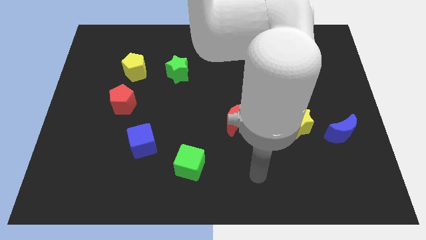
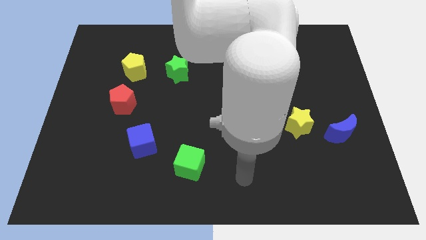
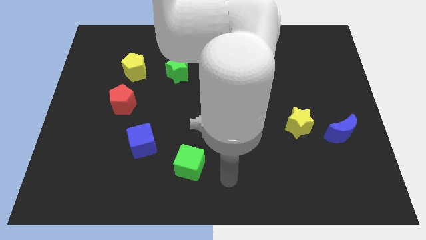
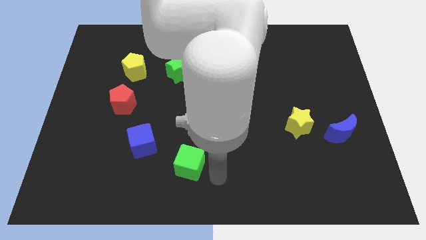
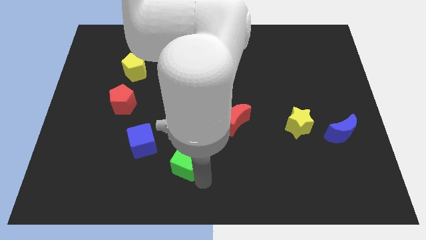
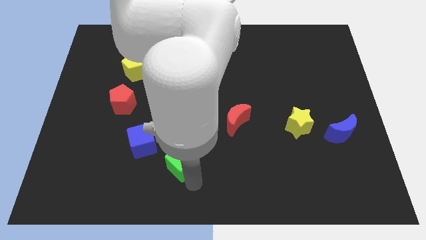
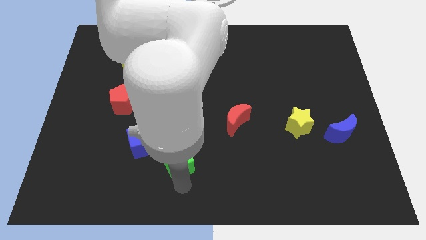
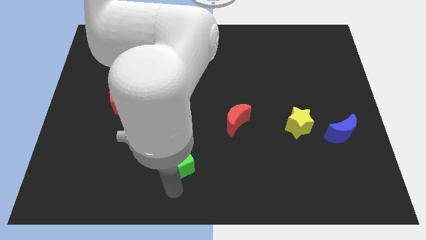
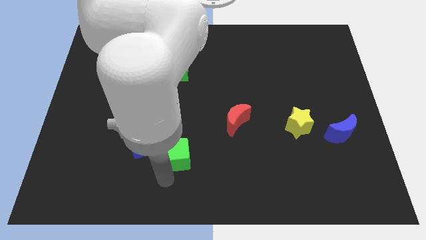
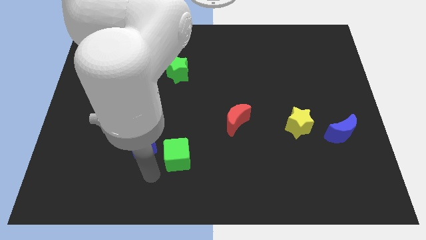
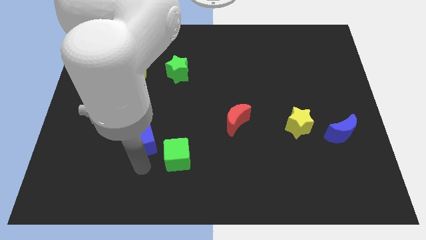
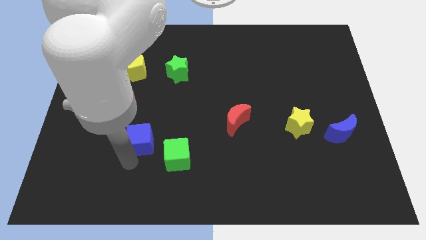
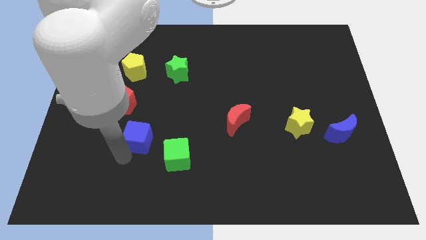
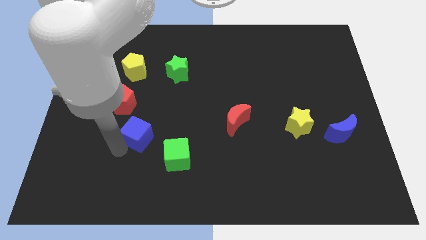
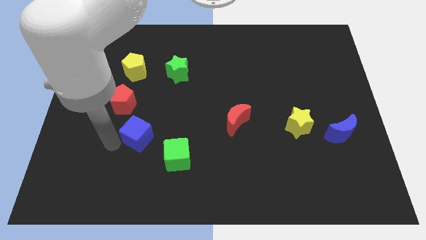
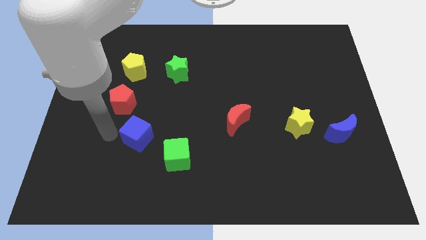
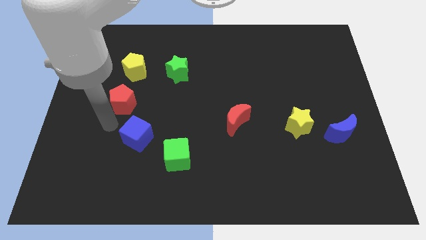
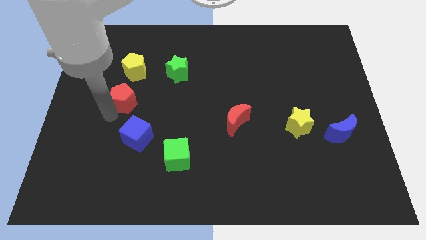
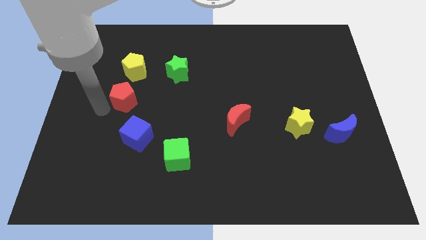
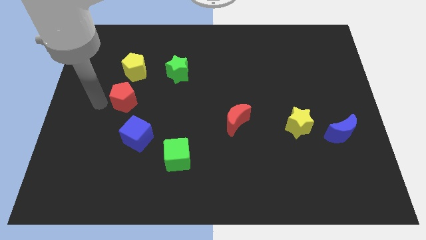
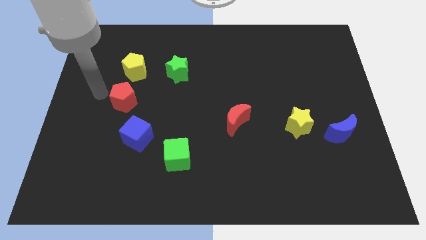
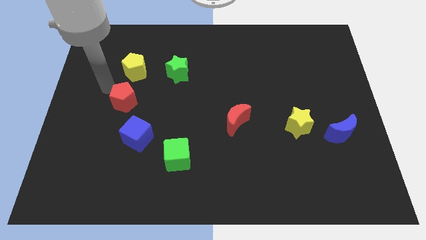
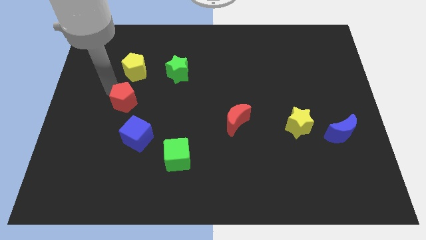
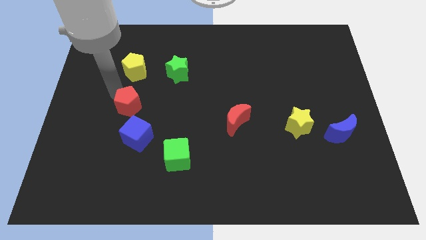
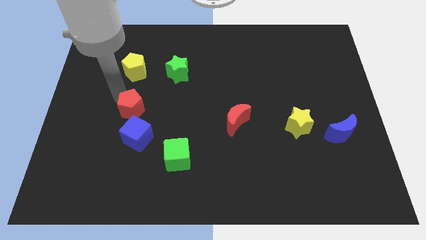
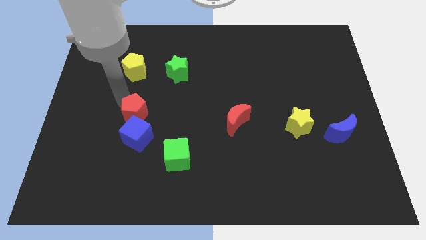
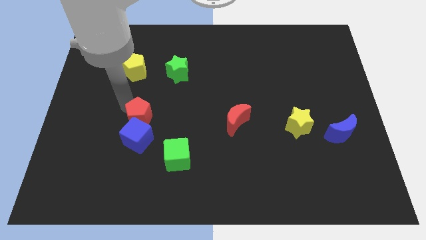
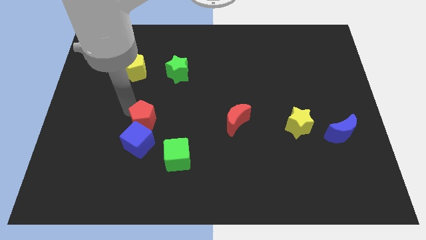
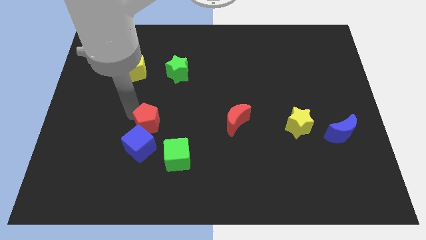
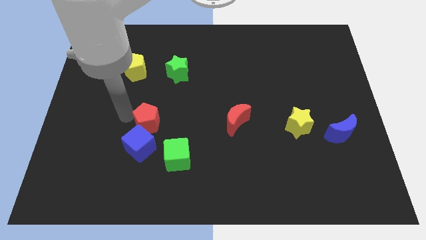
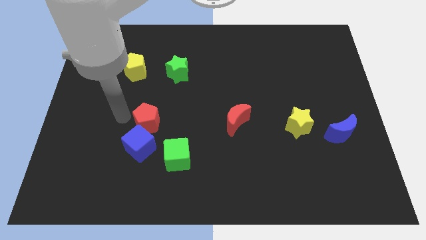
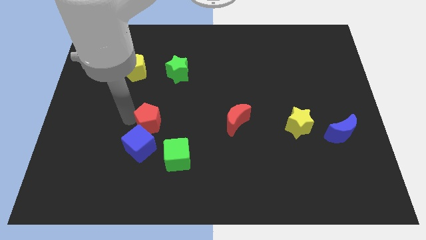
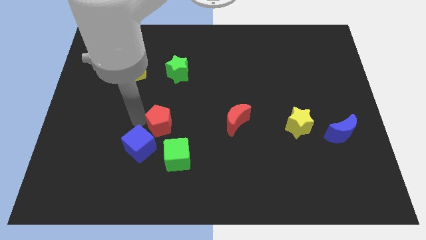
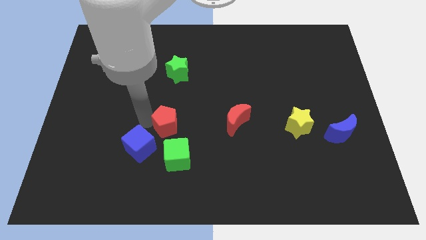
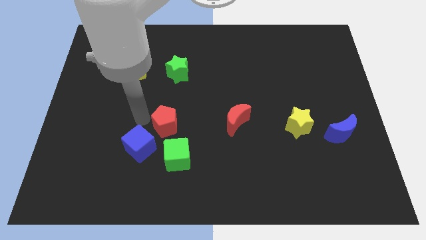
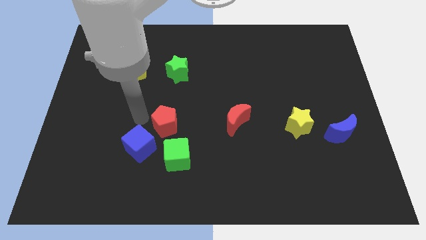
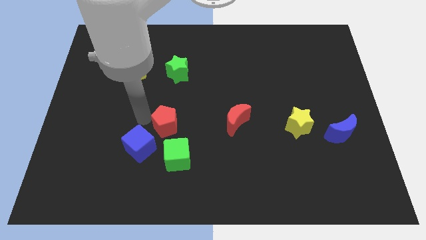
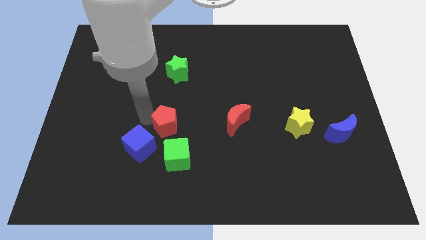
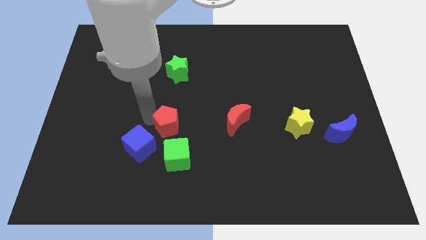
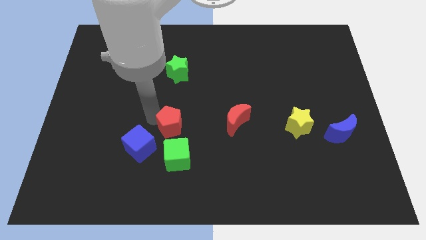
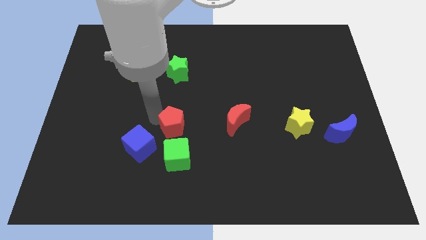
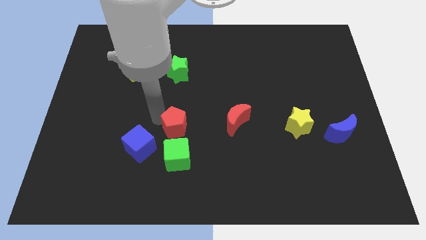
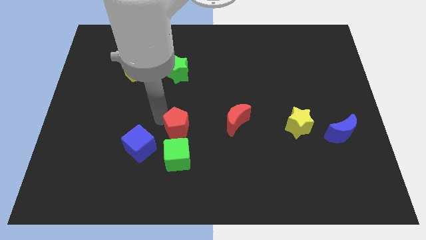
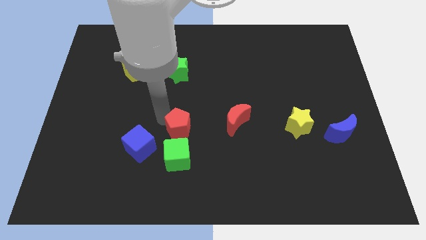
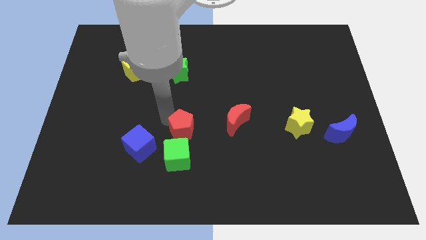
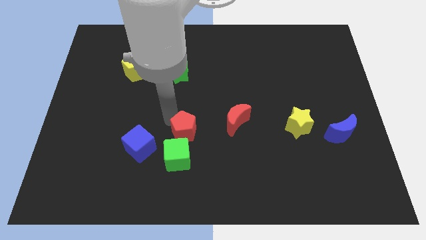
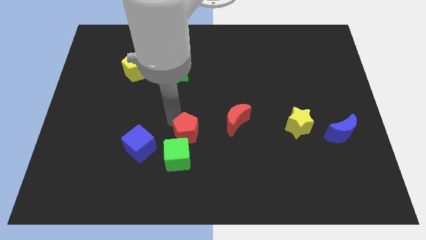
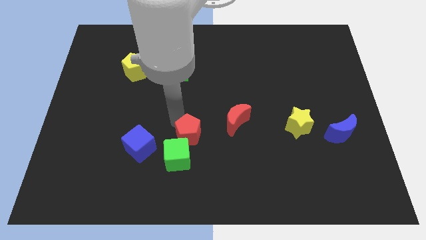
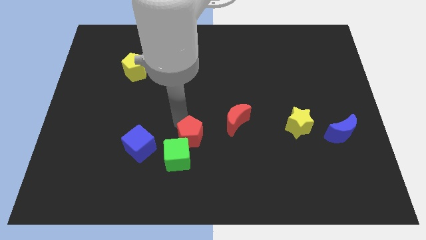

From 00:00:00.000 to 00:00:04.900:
move the red pentagon diagonally down and to the left of the red moon

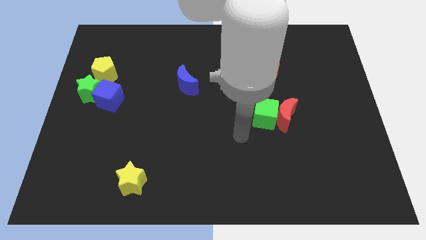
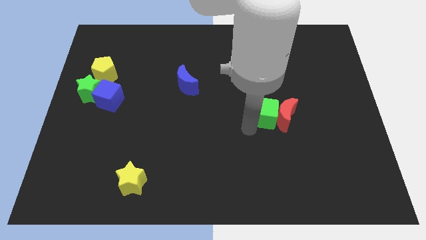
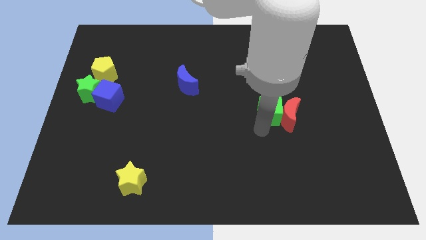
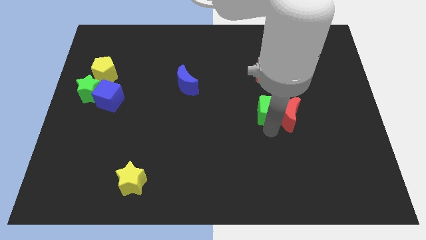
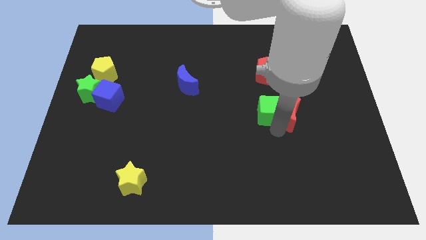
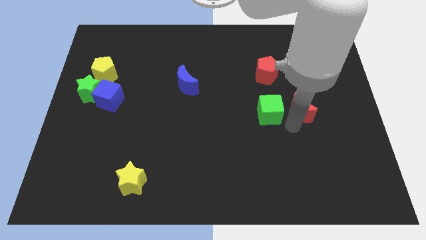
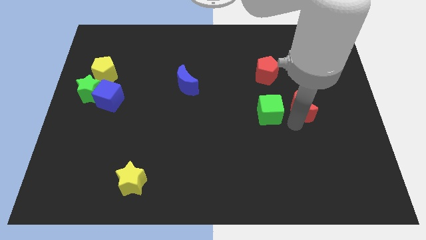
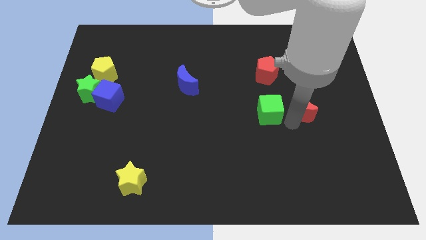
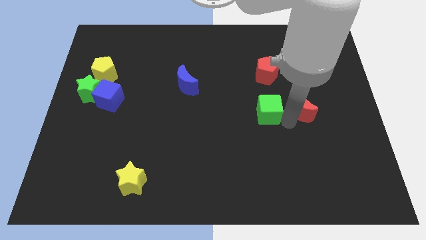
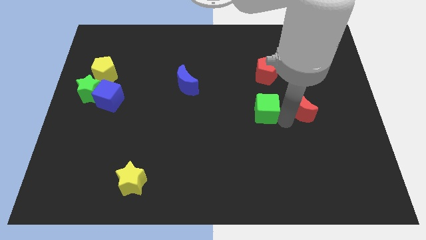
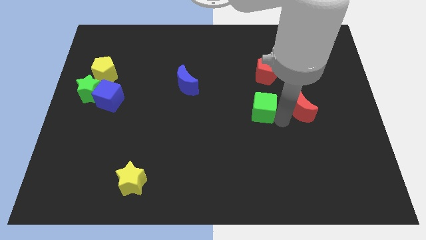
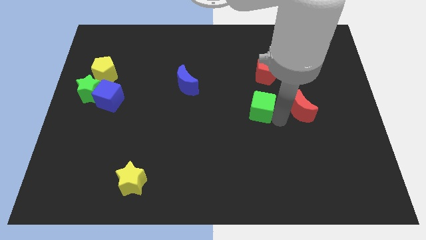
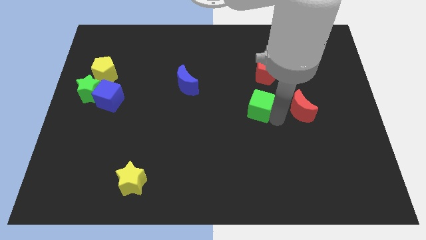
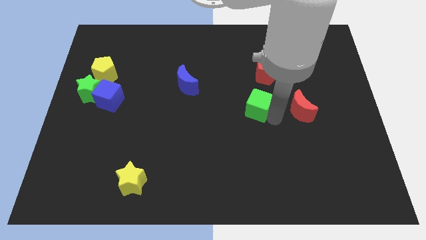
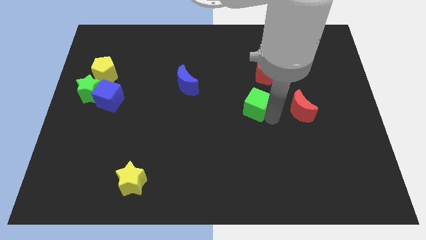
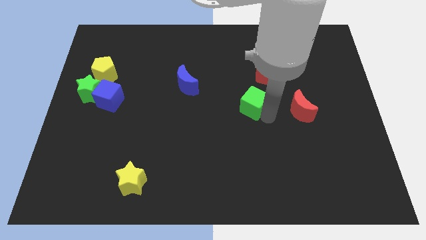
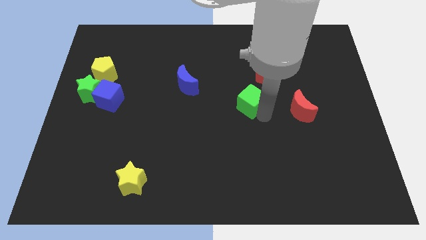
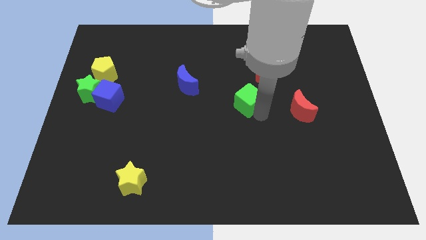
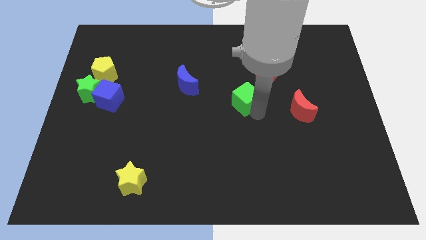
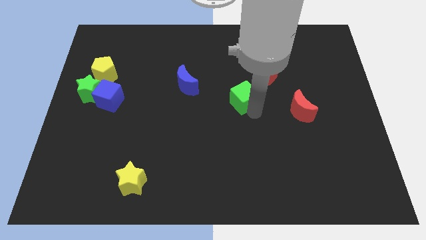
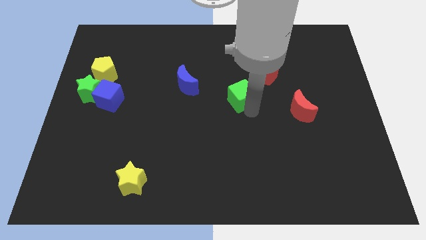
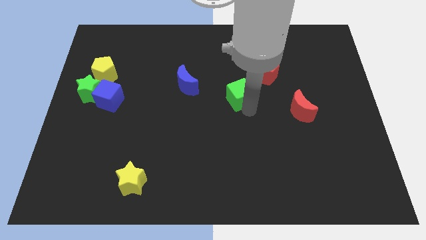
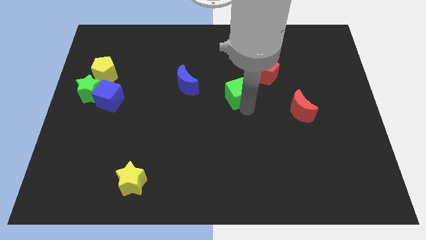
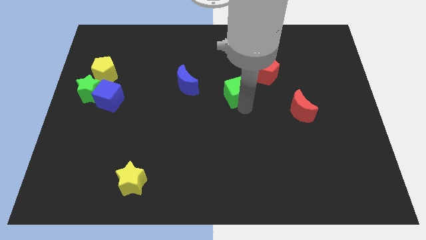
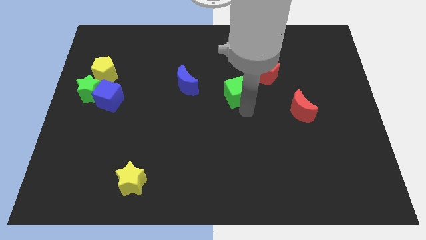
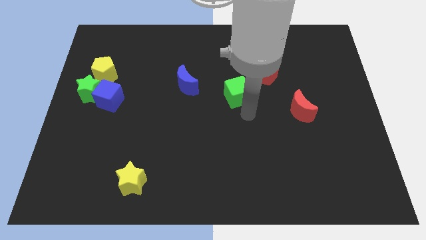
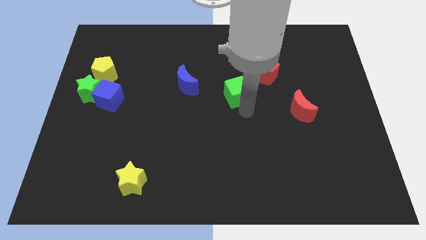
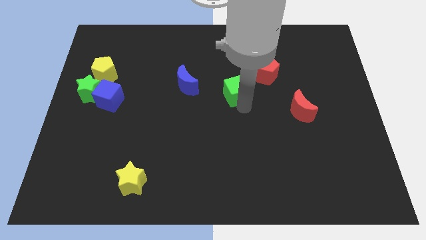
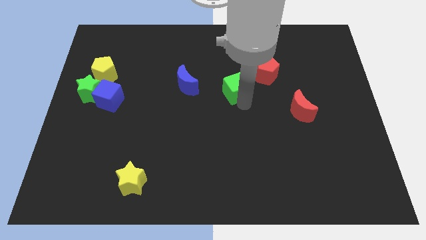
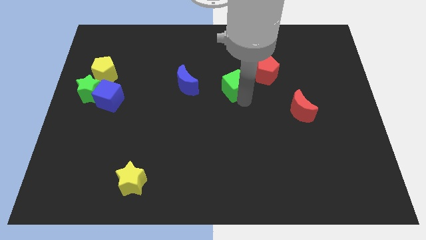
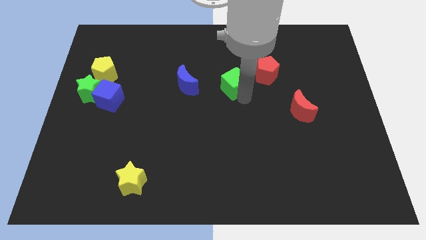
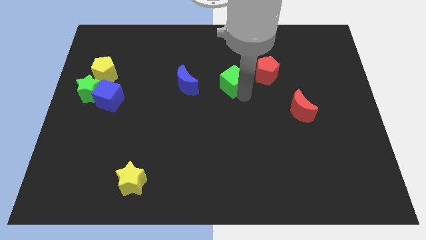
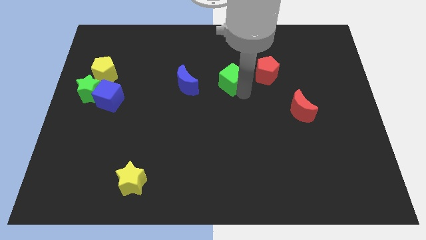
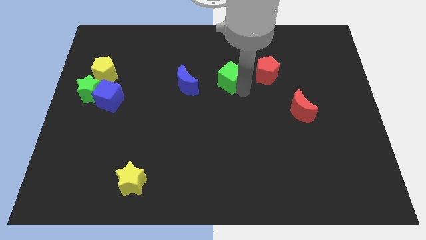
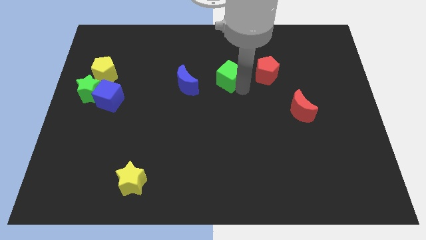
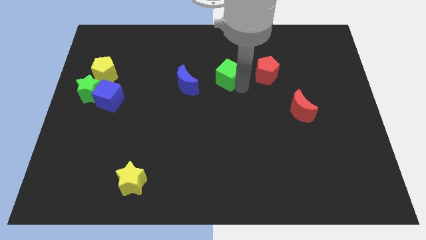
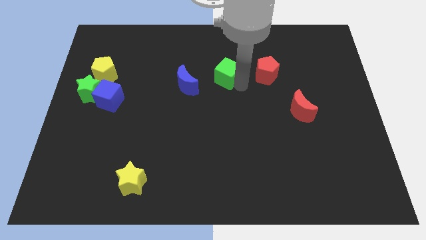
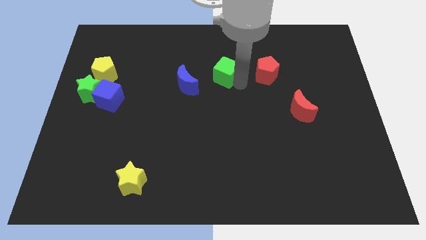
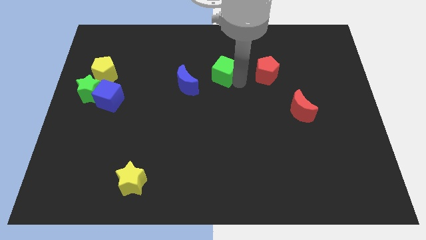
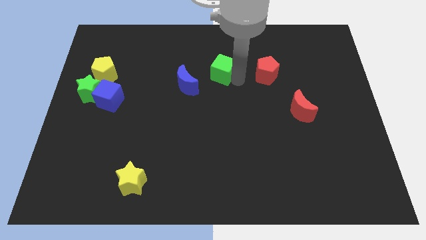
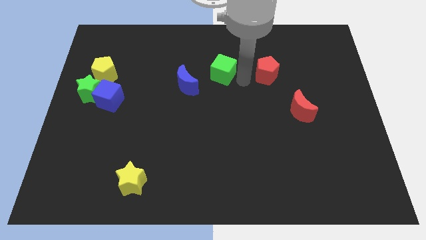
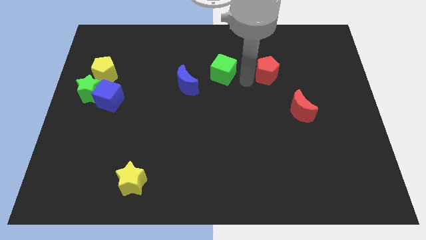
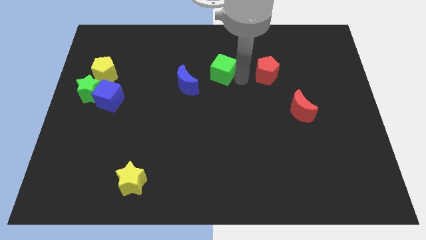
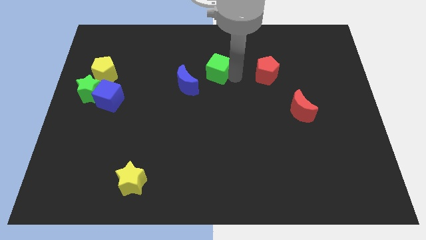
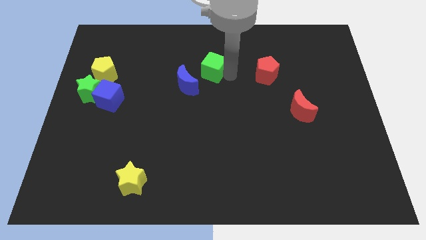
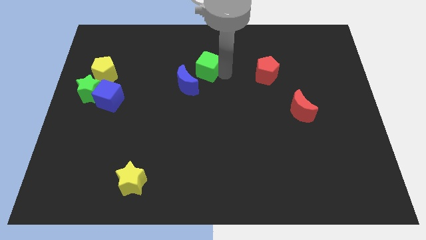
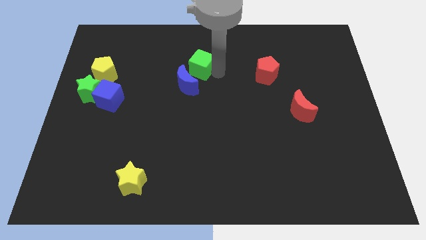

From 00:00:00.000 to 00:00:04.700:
put the green cube to the top side of the blue moon
